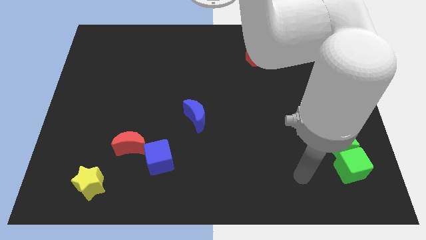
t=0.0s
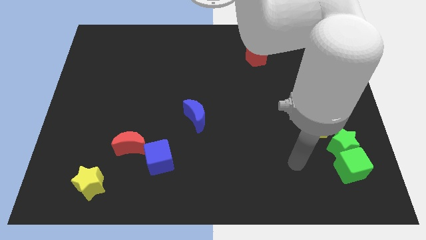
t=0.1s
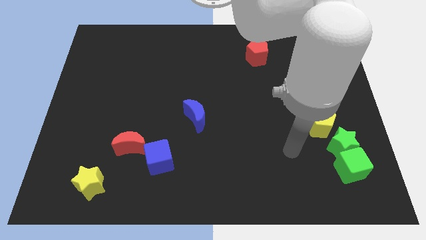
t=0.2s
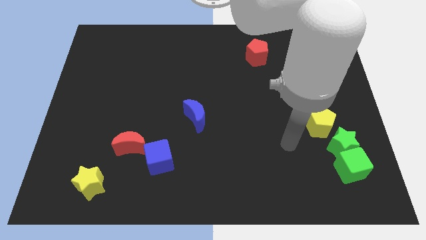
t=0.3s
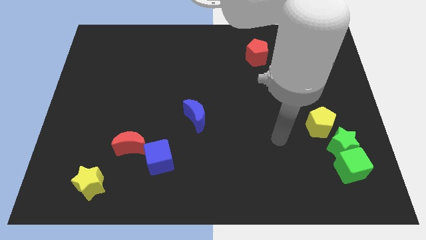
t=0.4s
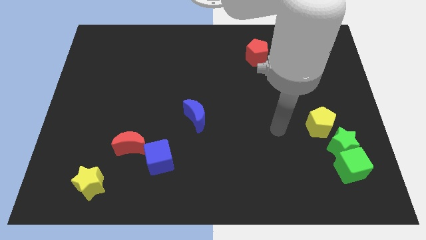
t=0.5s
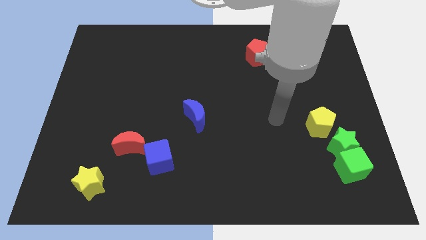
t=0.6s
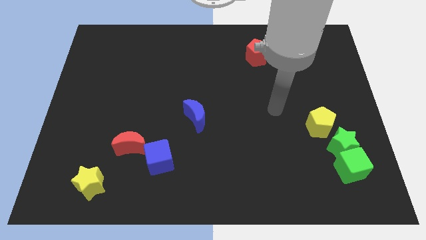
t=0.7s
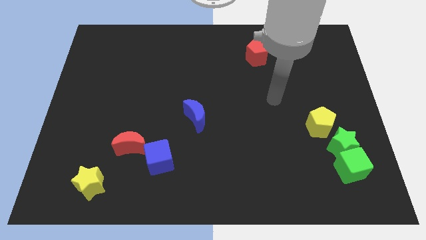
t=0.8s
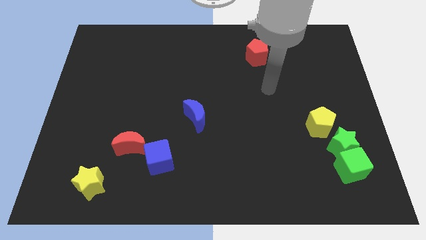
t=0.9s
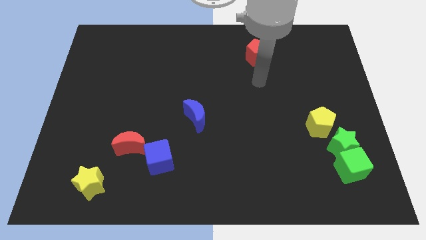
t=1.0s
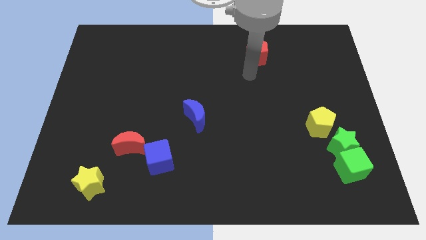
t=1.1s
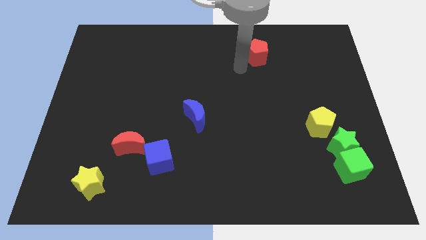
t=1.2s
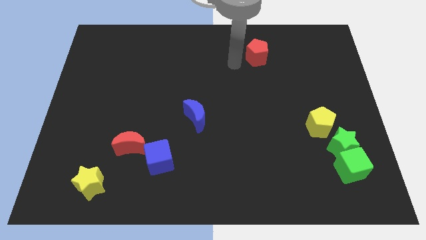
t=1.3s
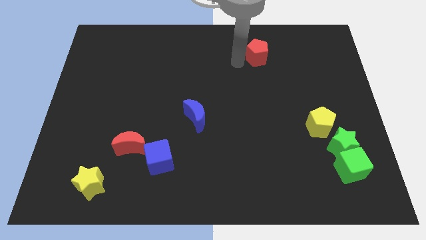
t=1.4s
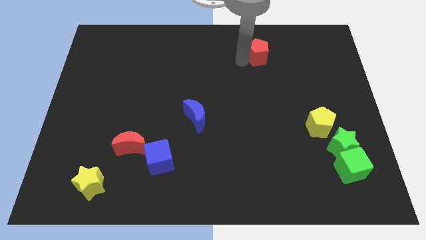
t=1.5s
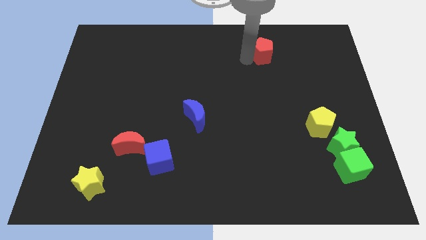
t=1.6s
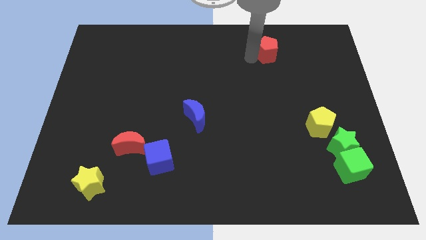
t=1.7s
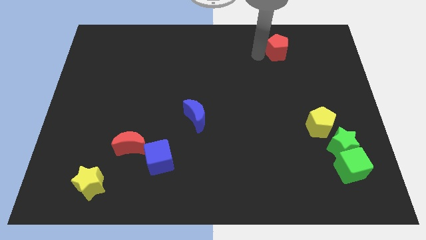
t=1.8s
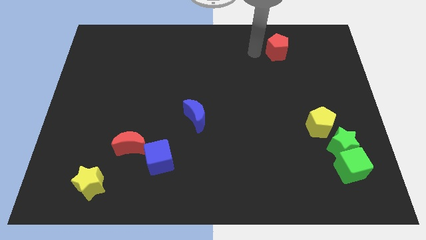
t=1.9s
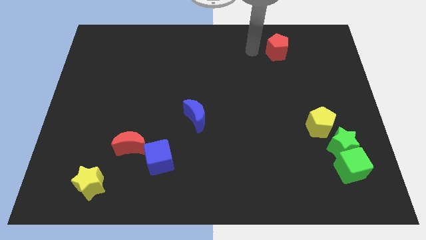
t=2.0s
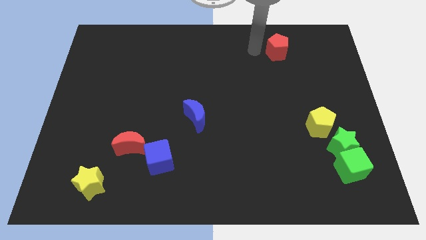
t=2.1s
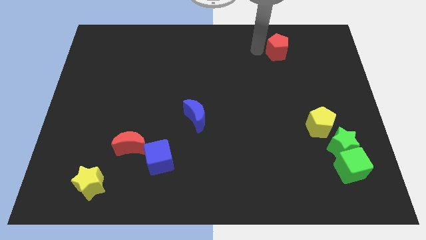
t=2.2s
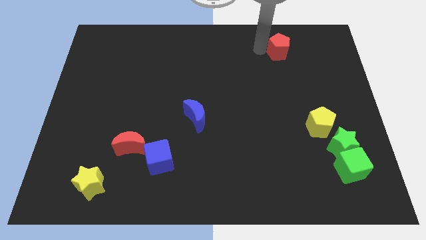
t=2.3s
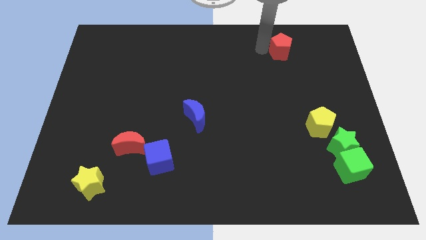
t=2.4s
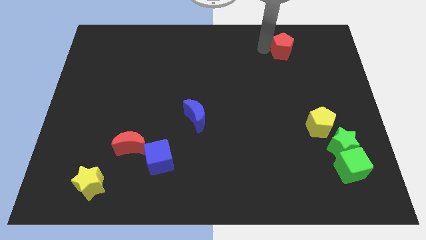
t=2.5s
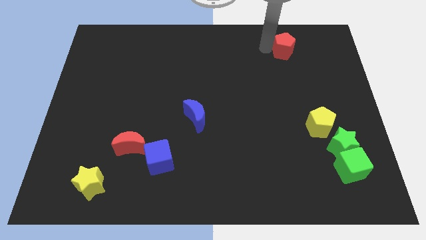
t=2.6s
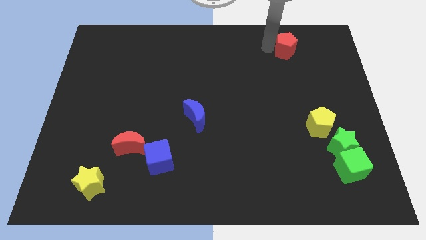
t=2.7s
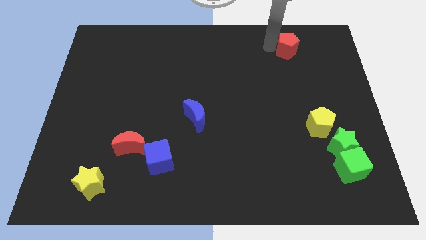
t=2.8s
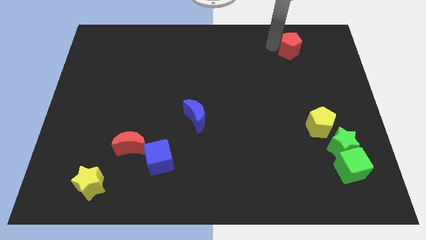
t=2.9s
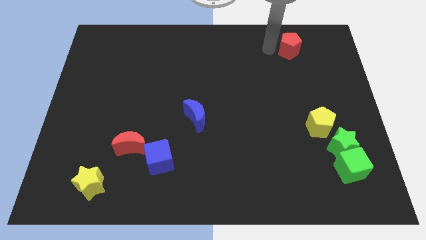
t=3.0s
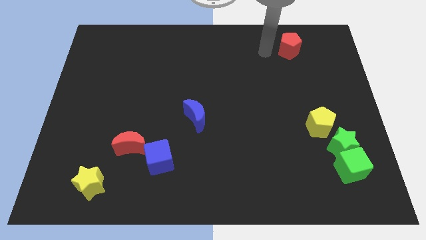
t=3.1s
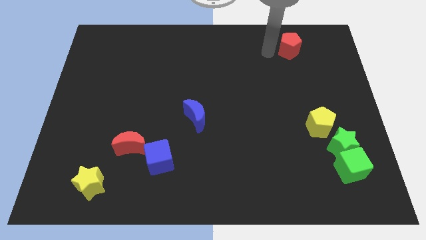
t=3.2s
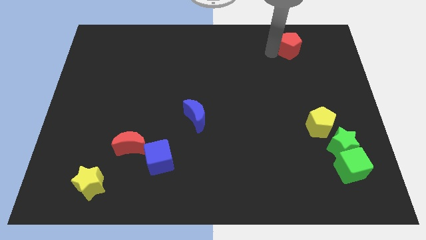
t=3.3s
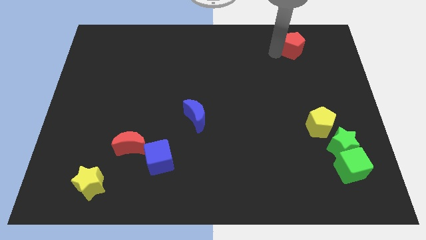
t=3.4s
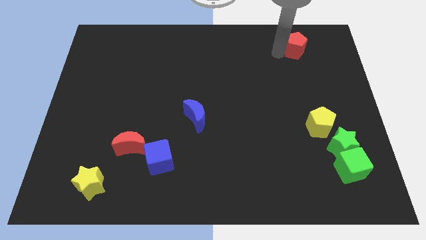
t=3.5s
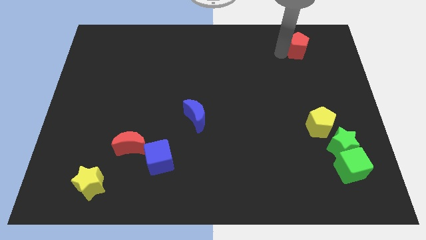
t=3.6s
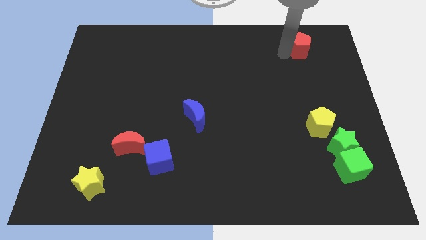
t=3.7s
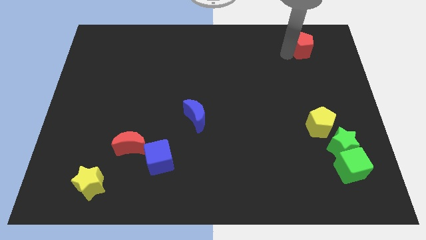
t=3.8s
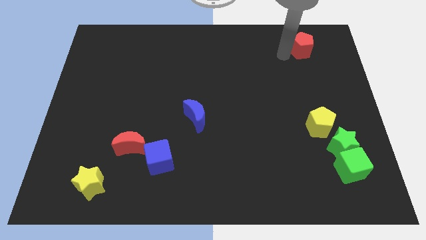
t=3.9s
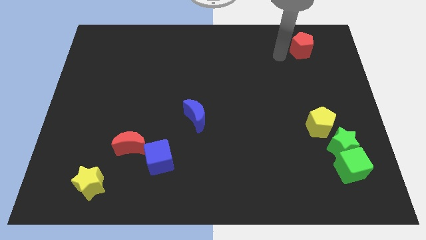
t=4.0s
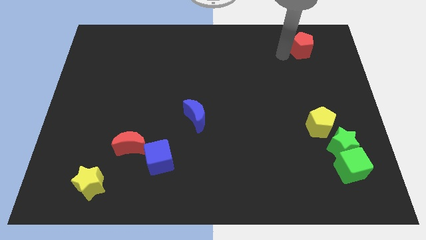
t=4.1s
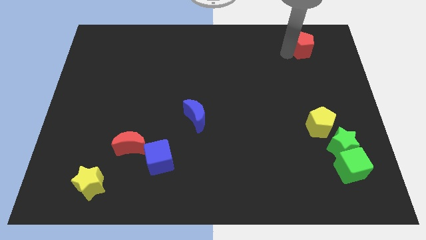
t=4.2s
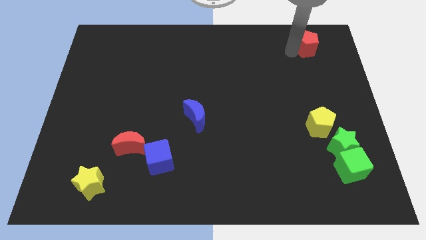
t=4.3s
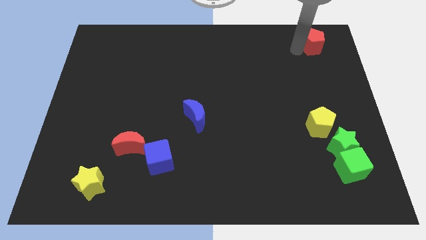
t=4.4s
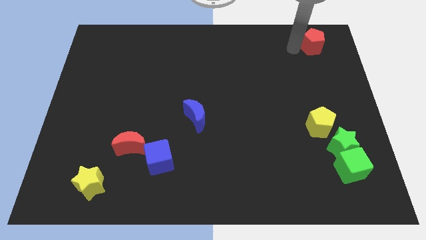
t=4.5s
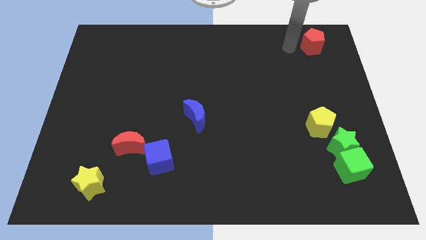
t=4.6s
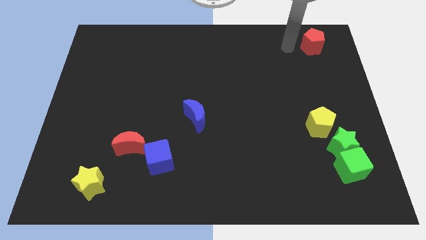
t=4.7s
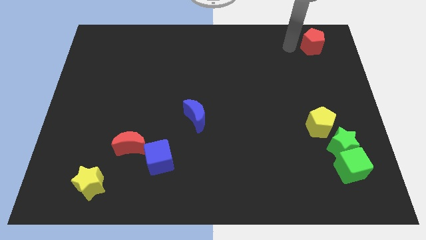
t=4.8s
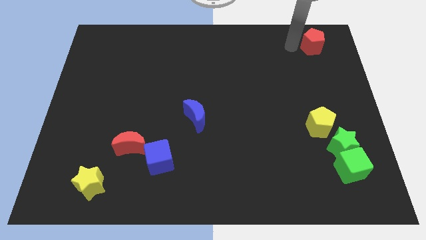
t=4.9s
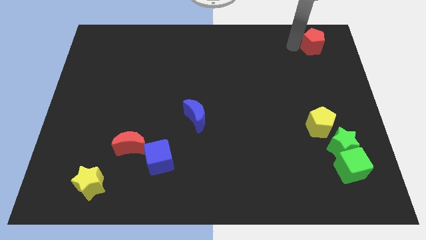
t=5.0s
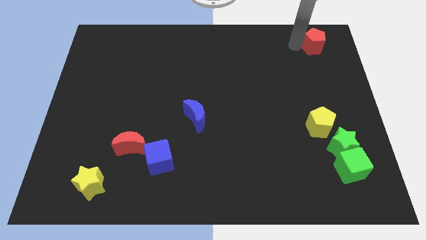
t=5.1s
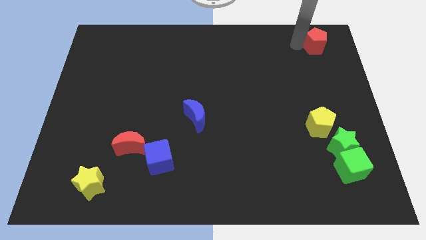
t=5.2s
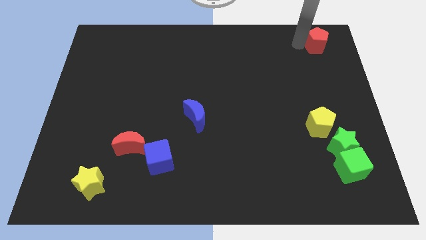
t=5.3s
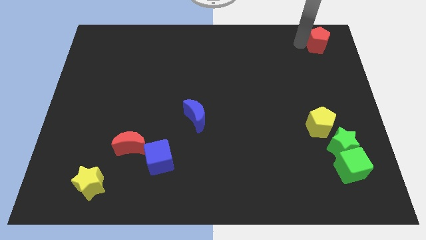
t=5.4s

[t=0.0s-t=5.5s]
slide the red pentagon to the top right corner
